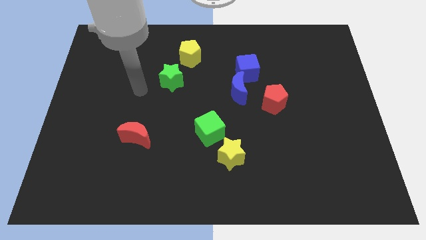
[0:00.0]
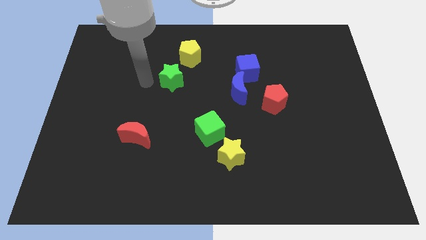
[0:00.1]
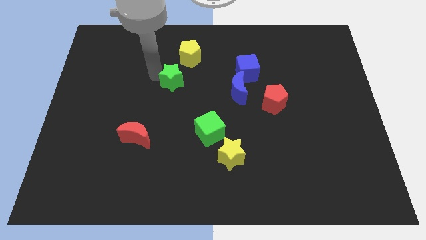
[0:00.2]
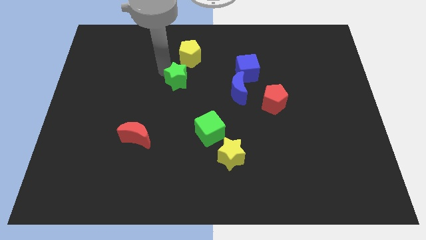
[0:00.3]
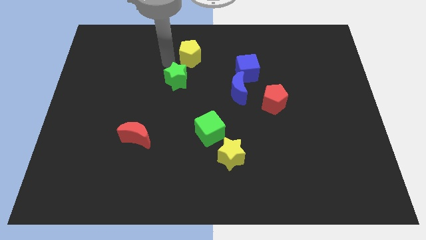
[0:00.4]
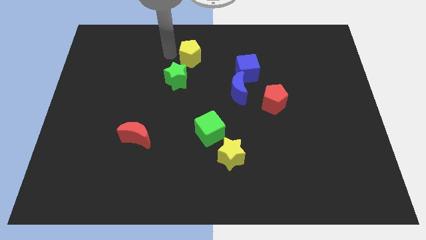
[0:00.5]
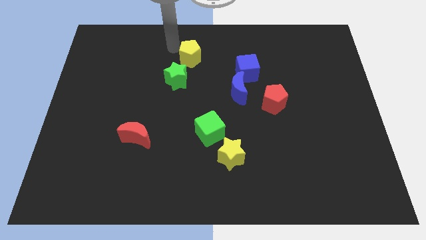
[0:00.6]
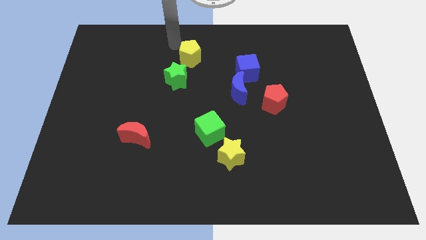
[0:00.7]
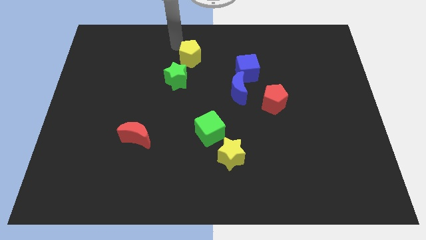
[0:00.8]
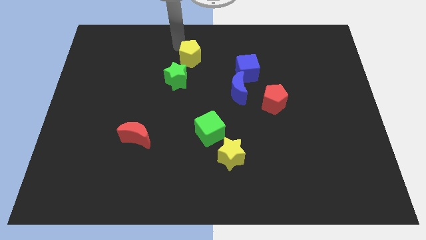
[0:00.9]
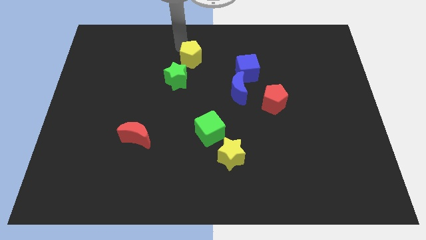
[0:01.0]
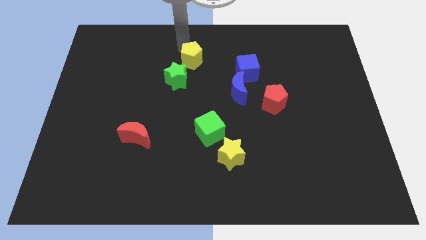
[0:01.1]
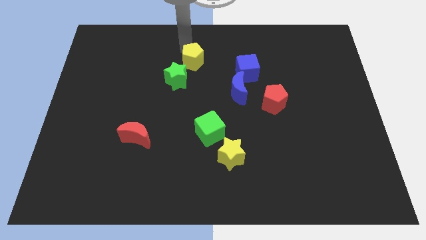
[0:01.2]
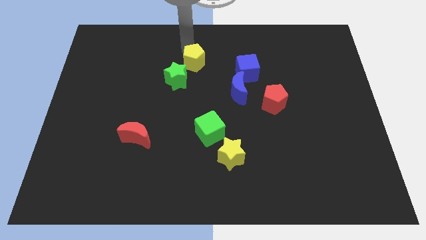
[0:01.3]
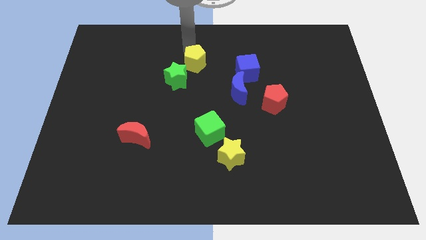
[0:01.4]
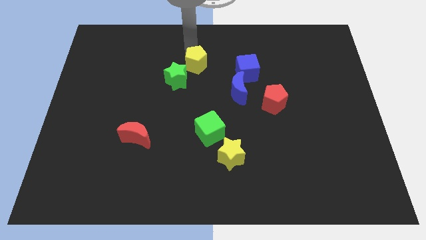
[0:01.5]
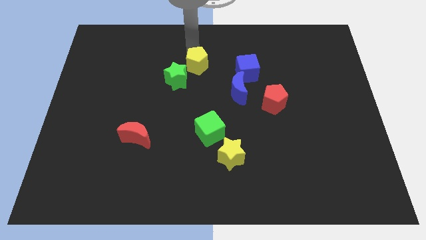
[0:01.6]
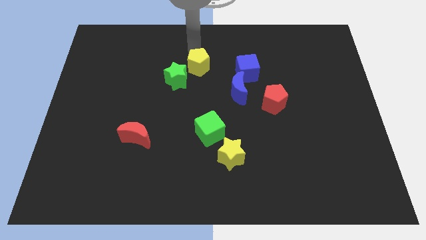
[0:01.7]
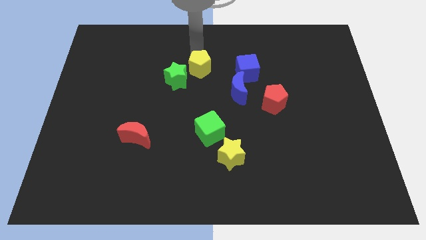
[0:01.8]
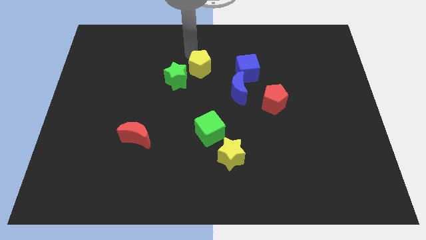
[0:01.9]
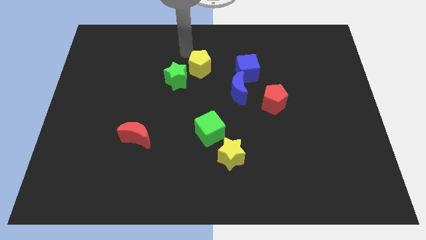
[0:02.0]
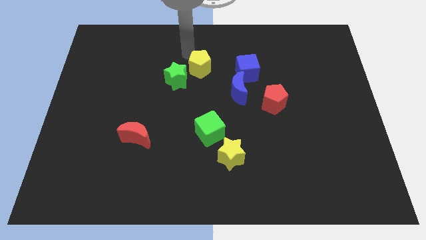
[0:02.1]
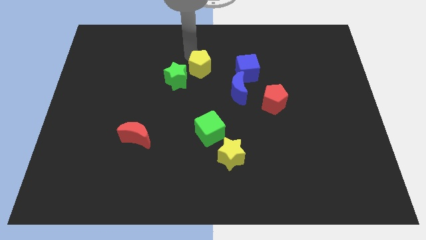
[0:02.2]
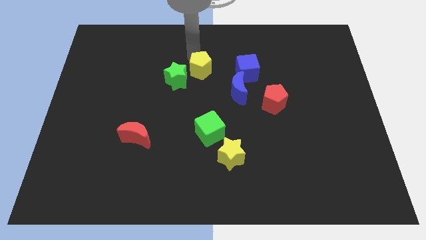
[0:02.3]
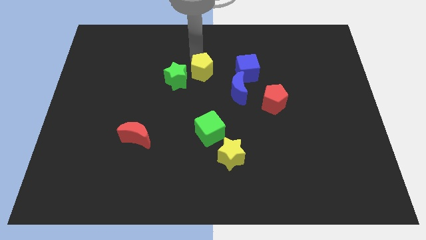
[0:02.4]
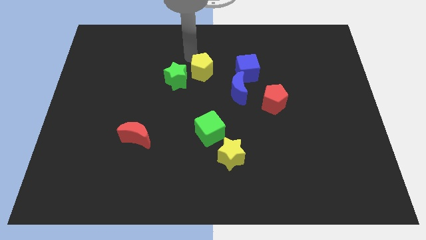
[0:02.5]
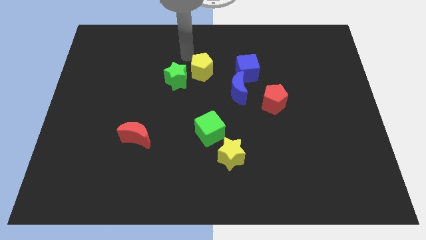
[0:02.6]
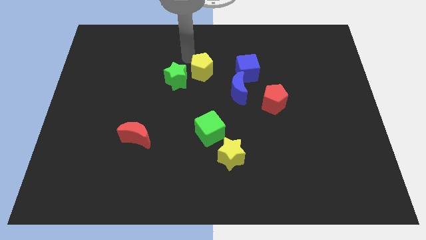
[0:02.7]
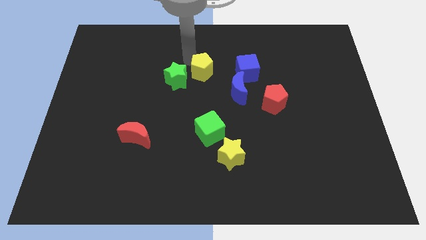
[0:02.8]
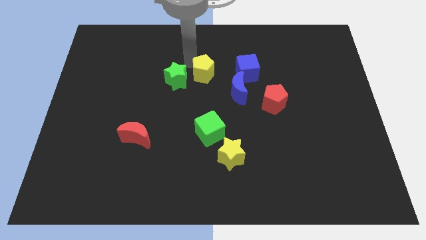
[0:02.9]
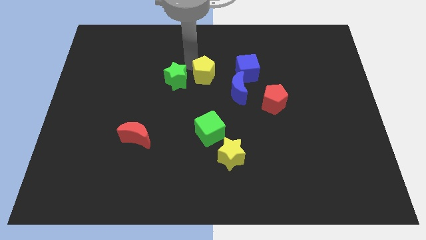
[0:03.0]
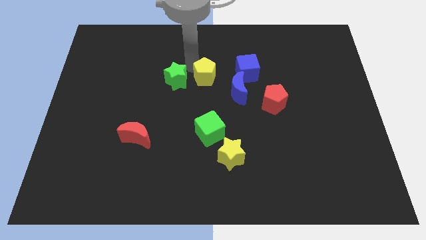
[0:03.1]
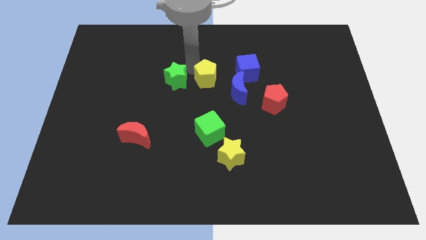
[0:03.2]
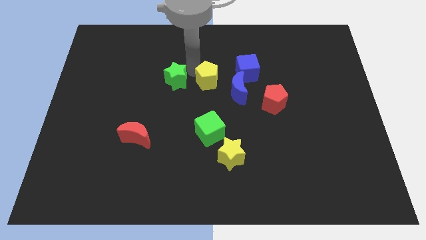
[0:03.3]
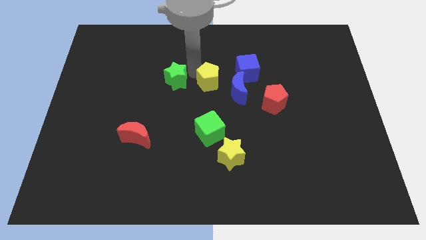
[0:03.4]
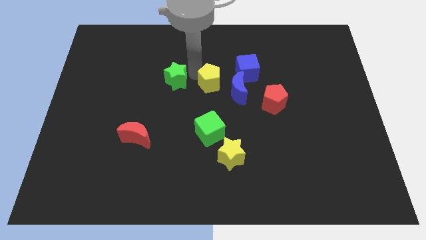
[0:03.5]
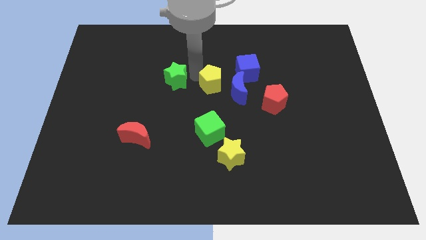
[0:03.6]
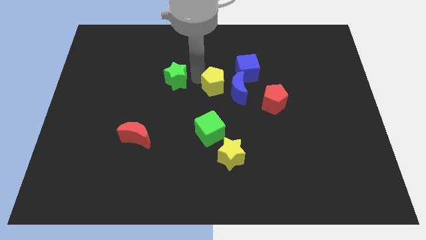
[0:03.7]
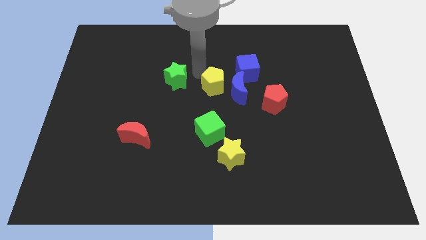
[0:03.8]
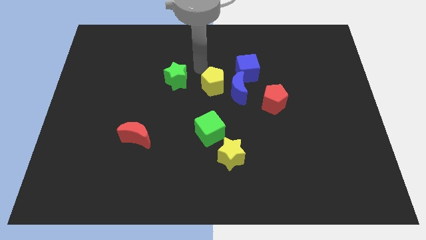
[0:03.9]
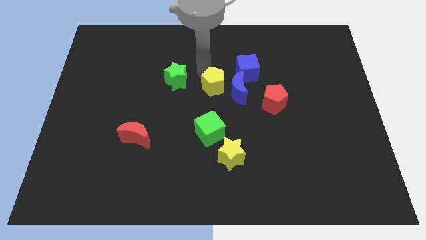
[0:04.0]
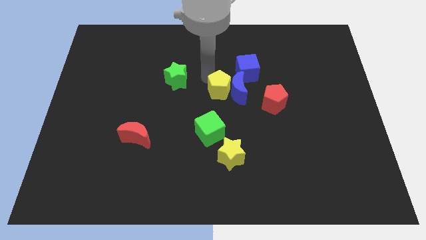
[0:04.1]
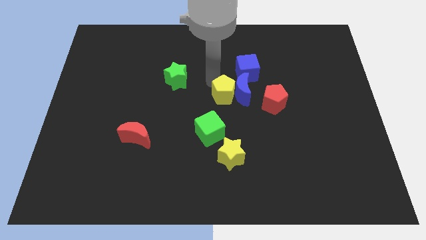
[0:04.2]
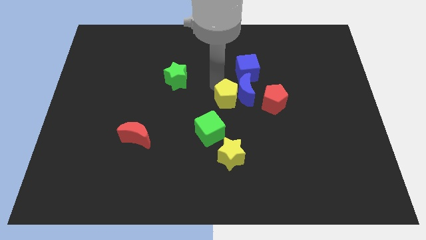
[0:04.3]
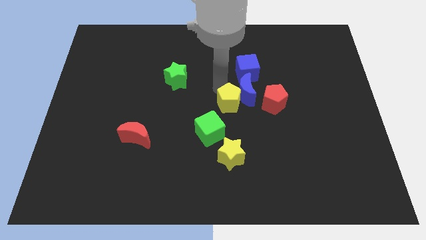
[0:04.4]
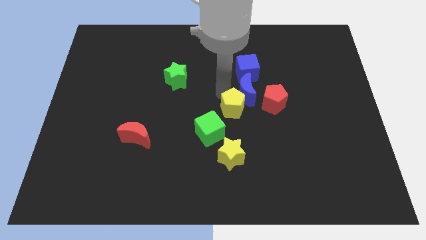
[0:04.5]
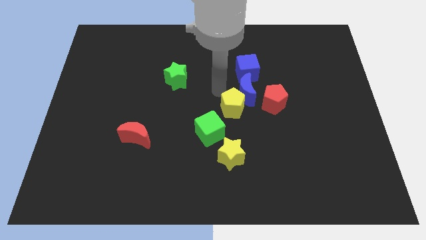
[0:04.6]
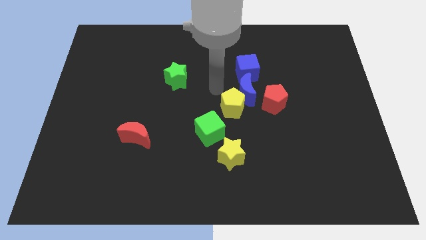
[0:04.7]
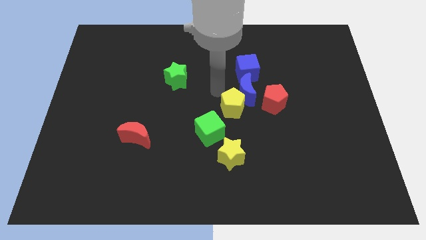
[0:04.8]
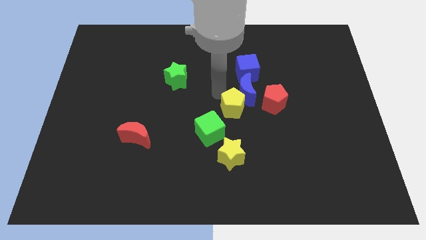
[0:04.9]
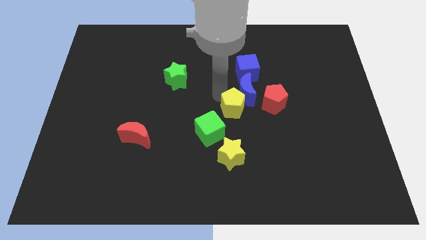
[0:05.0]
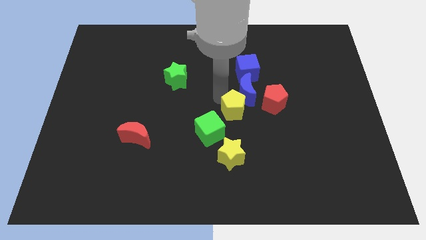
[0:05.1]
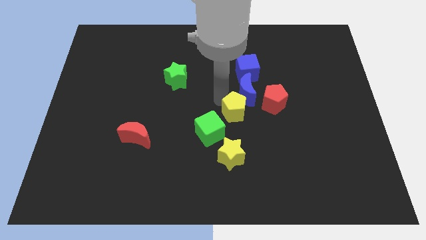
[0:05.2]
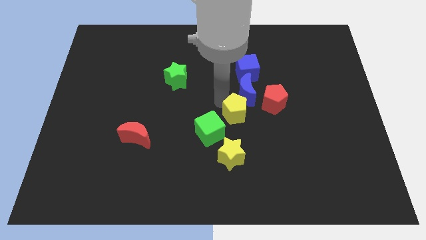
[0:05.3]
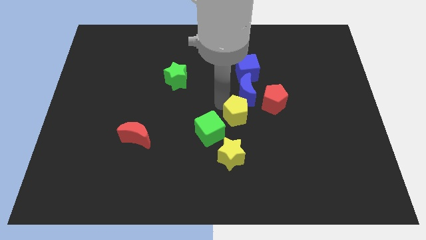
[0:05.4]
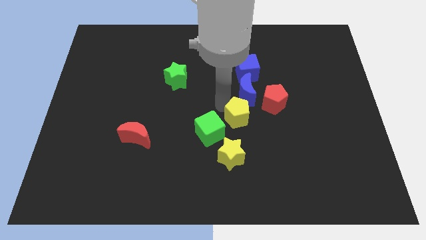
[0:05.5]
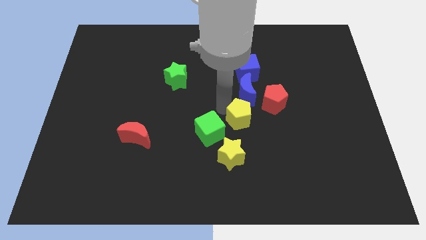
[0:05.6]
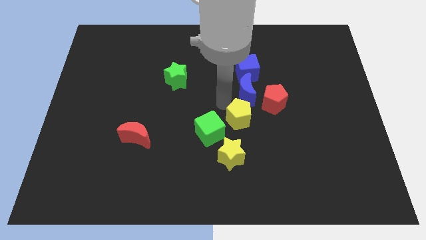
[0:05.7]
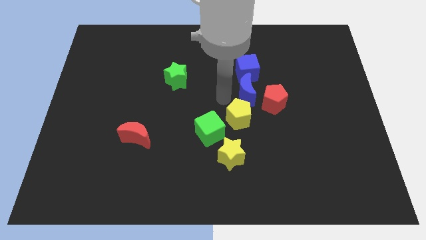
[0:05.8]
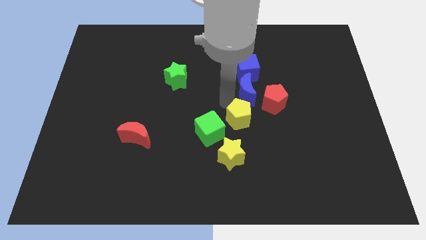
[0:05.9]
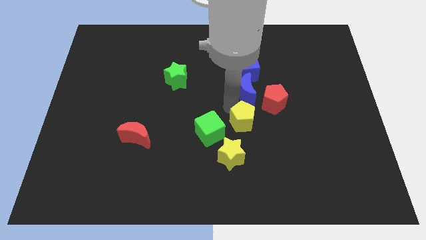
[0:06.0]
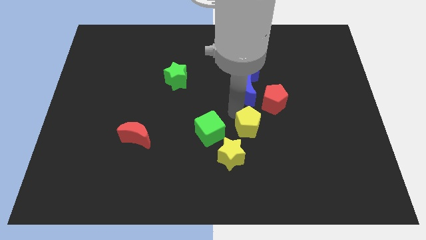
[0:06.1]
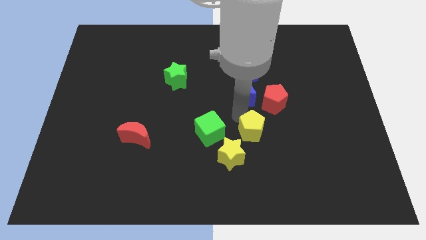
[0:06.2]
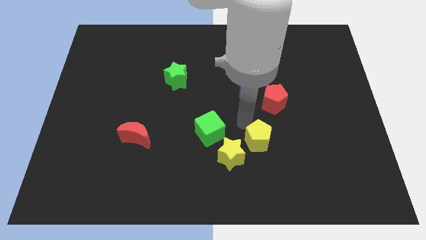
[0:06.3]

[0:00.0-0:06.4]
put the yellow pentagon to the right side of the yellow star
